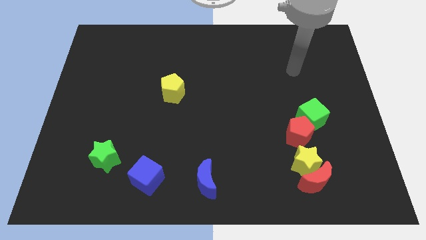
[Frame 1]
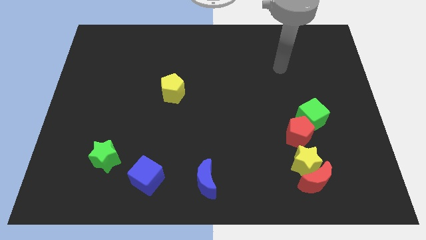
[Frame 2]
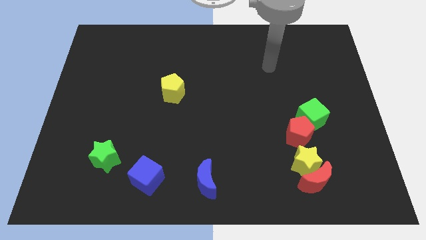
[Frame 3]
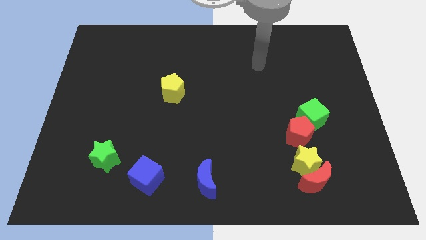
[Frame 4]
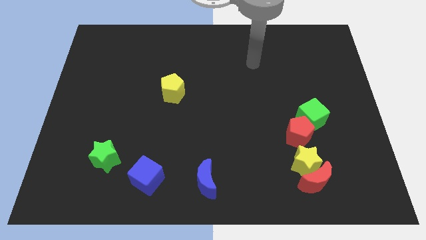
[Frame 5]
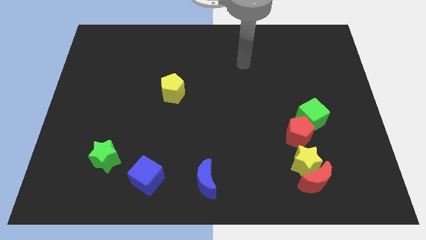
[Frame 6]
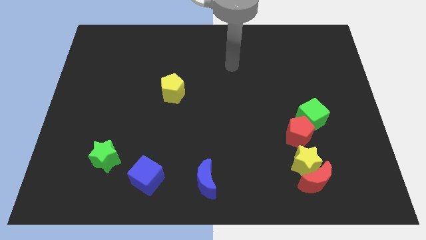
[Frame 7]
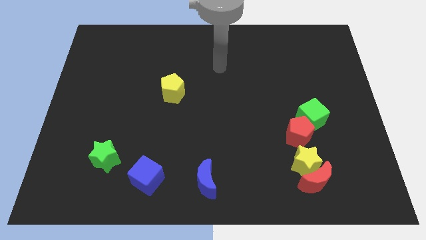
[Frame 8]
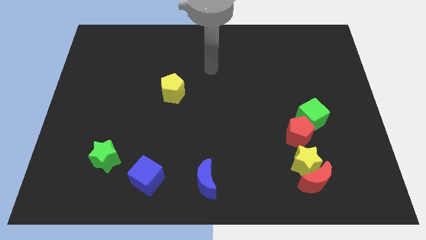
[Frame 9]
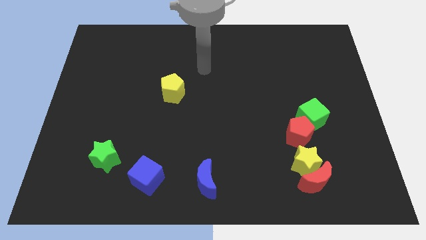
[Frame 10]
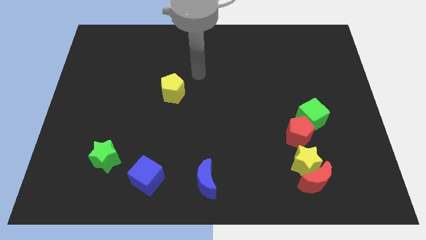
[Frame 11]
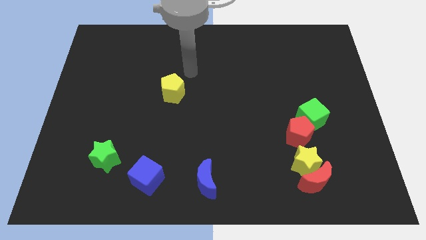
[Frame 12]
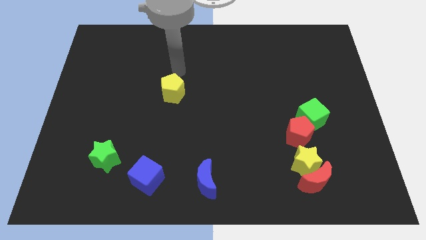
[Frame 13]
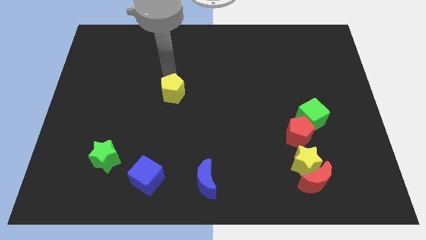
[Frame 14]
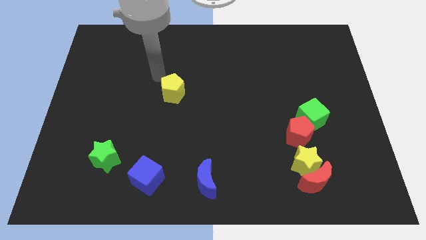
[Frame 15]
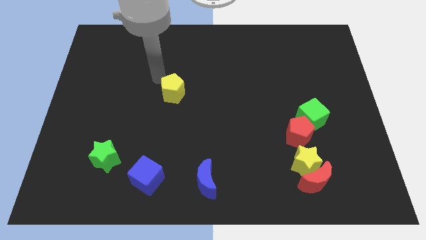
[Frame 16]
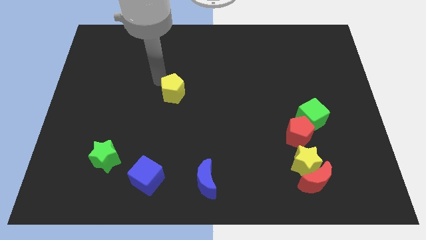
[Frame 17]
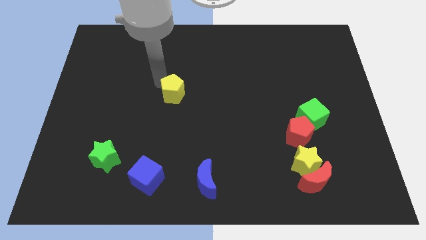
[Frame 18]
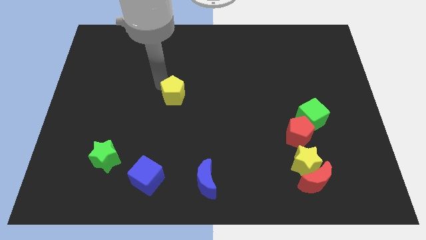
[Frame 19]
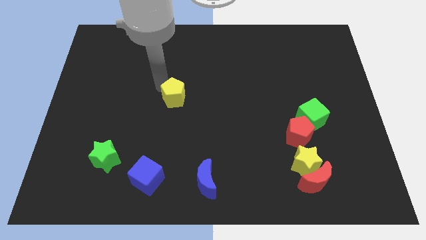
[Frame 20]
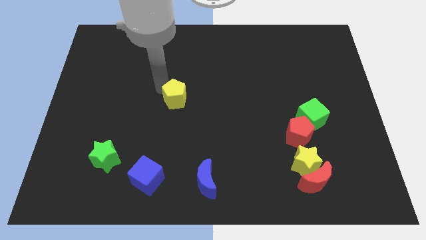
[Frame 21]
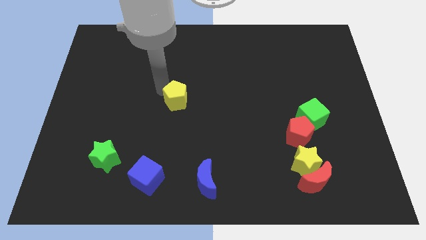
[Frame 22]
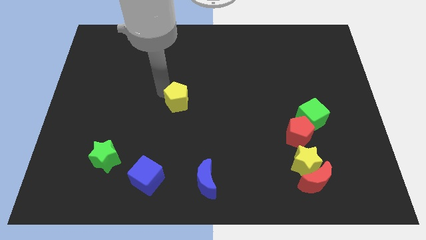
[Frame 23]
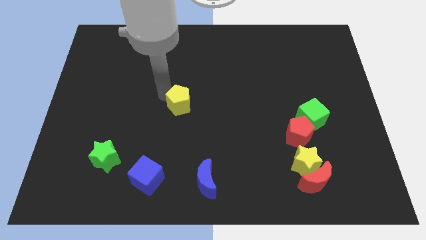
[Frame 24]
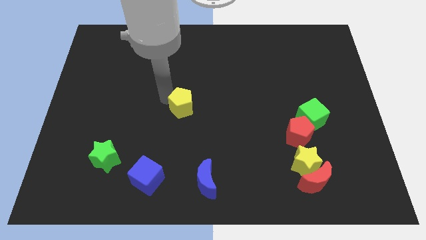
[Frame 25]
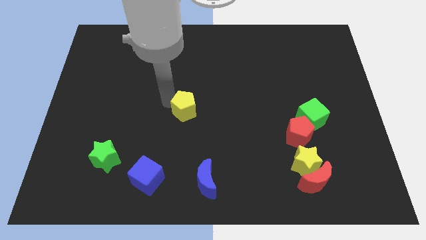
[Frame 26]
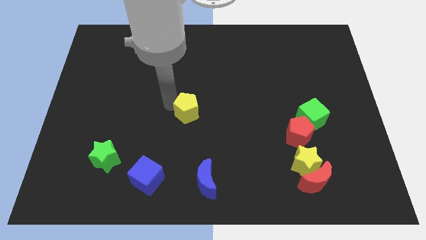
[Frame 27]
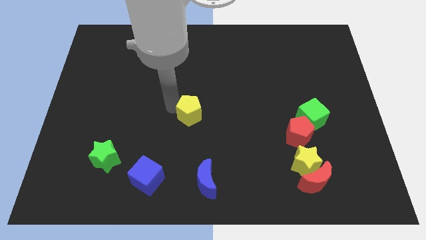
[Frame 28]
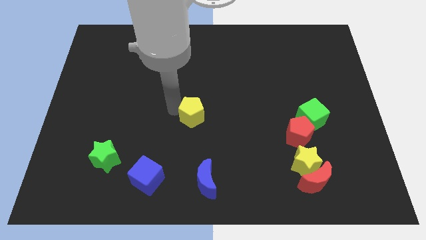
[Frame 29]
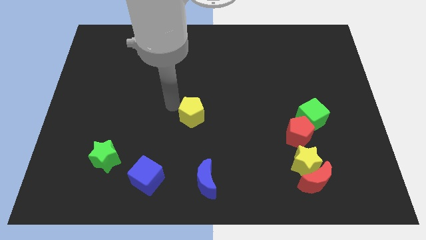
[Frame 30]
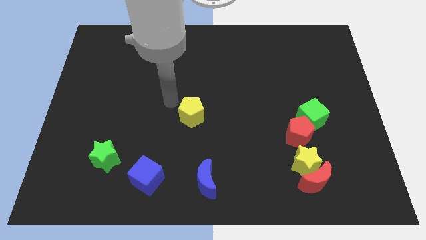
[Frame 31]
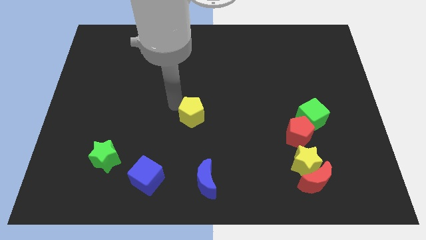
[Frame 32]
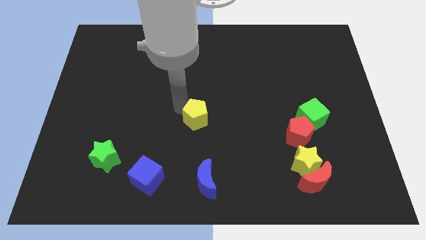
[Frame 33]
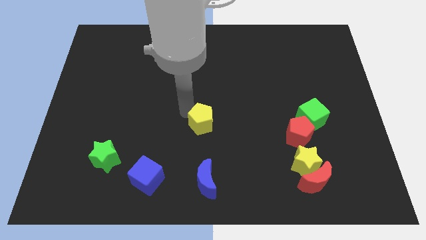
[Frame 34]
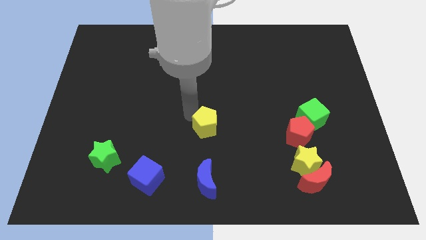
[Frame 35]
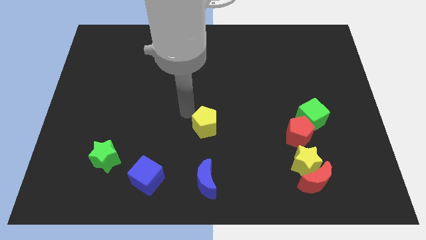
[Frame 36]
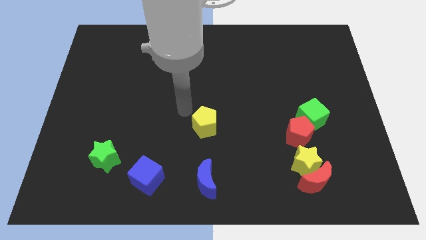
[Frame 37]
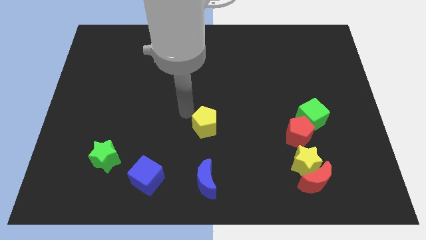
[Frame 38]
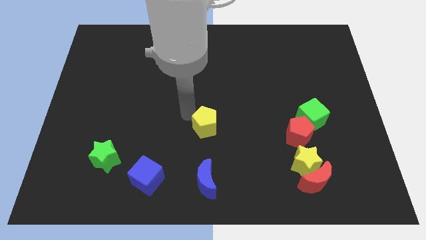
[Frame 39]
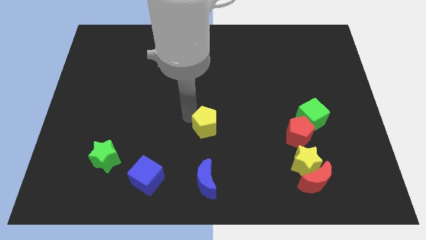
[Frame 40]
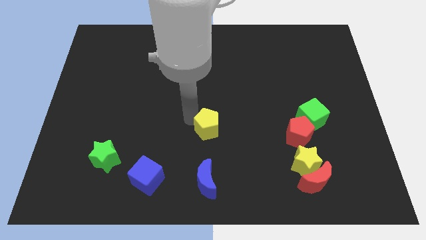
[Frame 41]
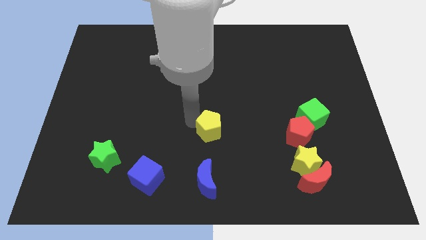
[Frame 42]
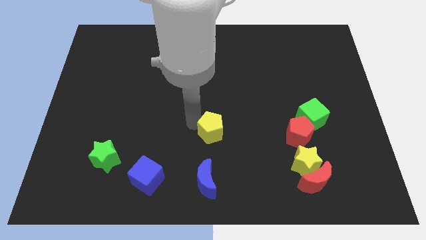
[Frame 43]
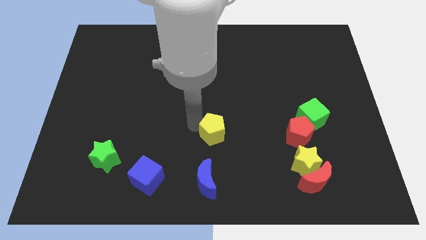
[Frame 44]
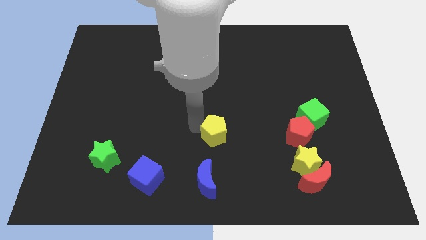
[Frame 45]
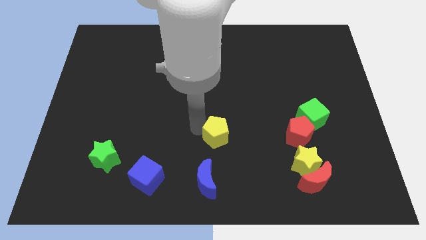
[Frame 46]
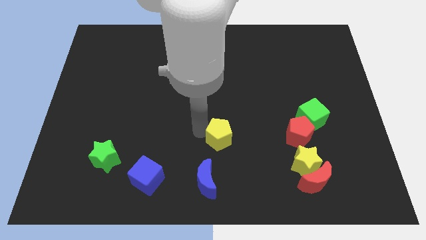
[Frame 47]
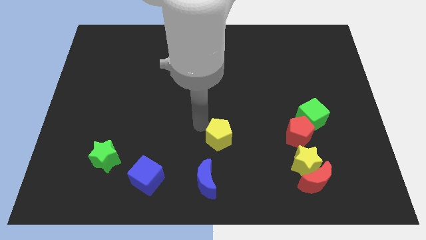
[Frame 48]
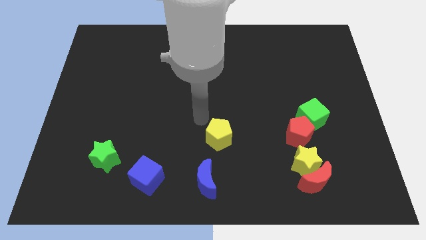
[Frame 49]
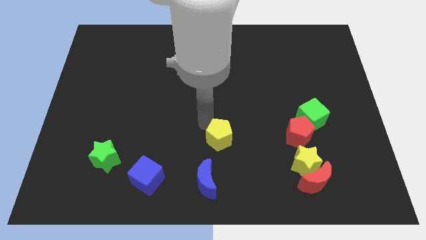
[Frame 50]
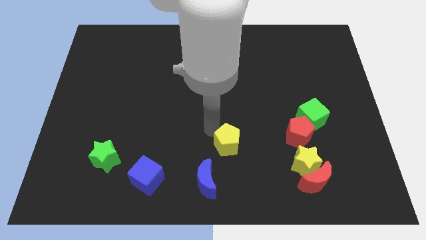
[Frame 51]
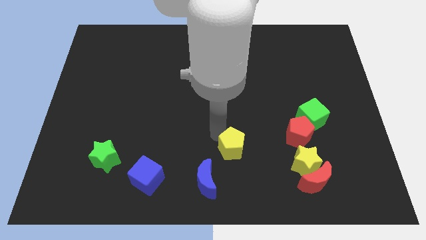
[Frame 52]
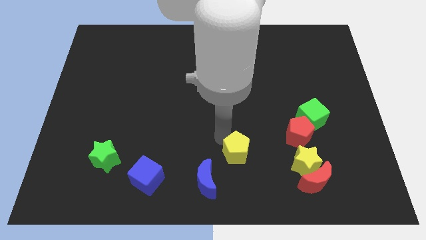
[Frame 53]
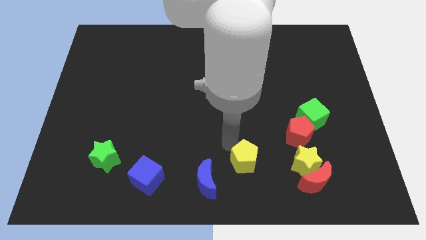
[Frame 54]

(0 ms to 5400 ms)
slide the yellow pentagon just right of the blue moon

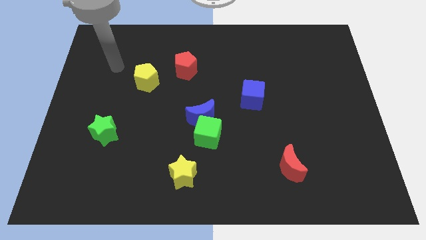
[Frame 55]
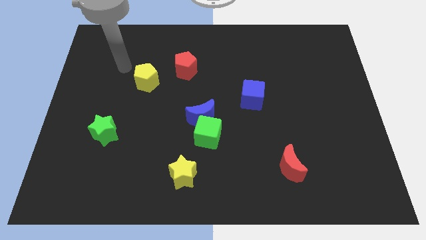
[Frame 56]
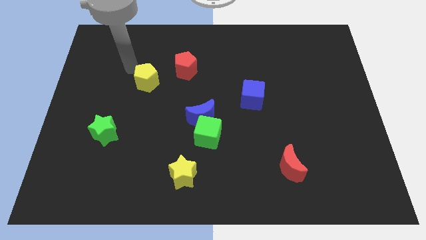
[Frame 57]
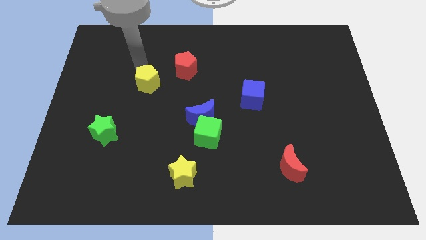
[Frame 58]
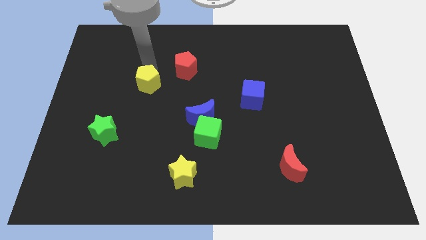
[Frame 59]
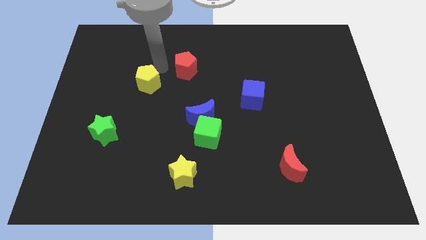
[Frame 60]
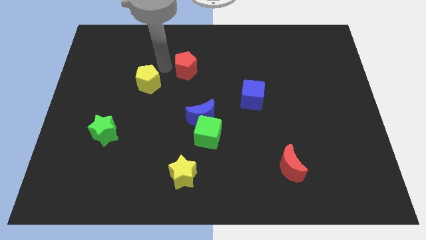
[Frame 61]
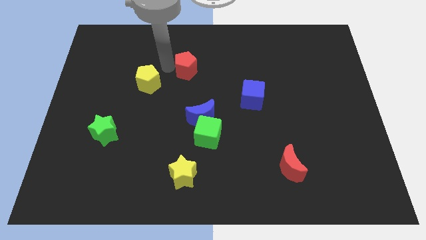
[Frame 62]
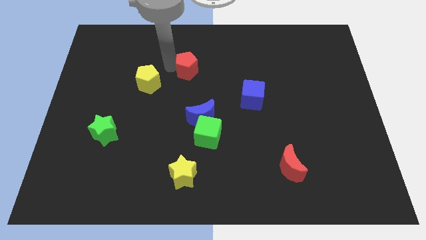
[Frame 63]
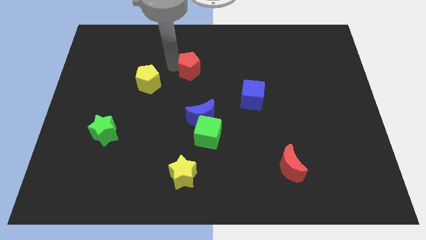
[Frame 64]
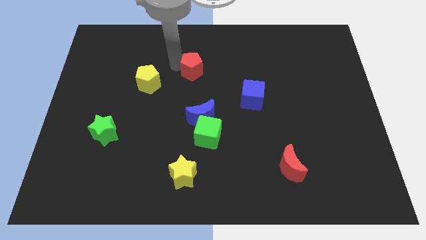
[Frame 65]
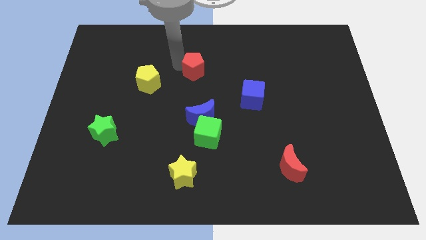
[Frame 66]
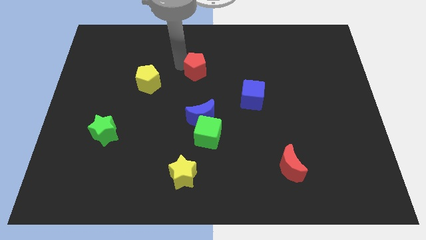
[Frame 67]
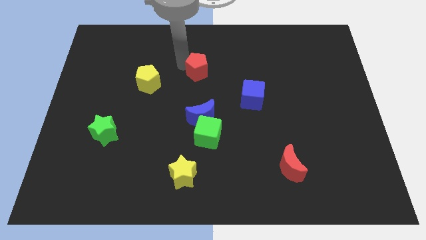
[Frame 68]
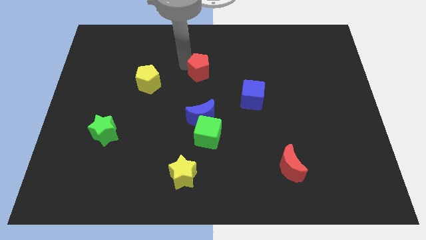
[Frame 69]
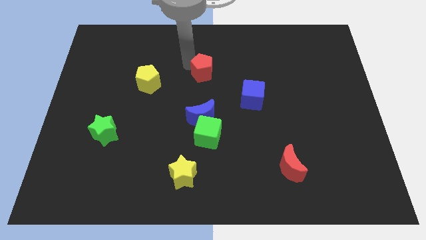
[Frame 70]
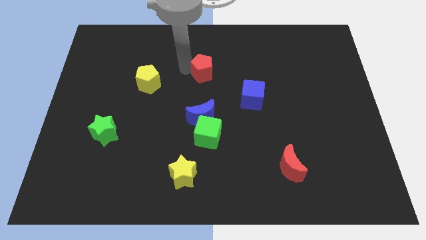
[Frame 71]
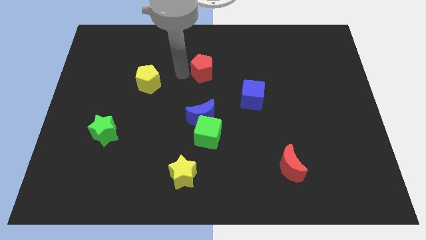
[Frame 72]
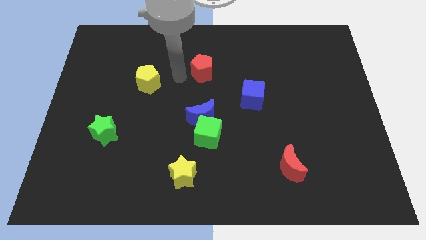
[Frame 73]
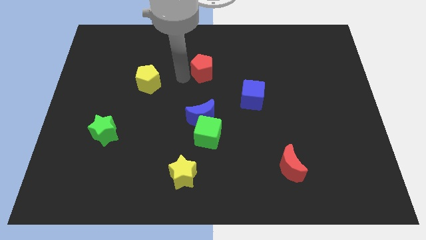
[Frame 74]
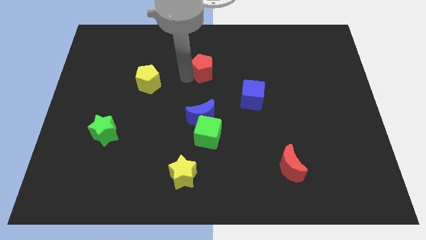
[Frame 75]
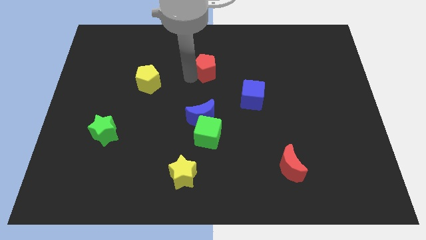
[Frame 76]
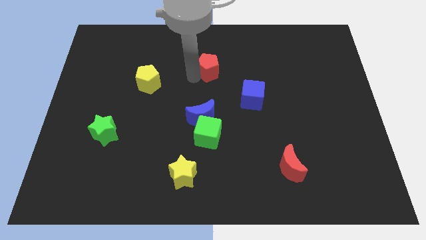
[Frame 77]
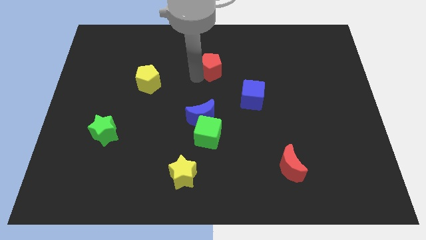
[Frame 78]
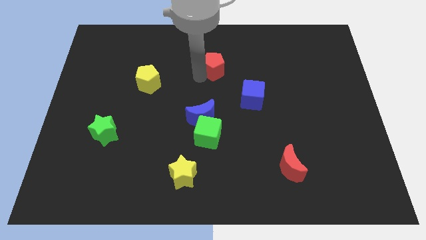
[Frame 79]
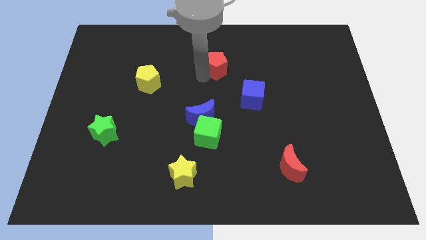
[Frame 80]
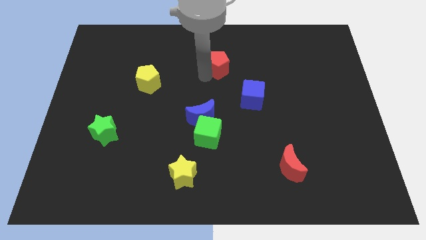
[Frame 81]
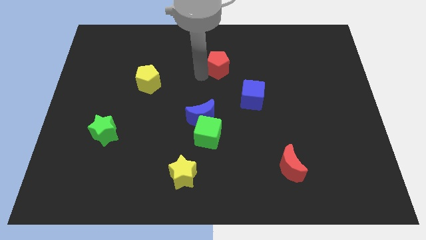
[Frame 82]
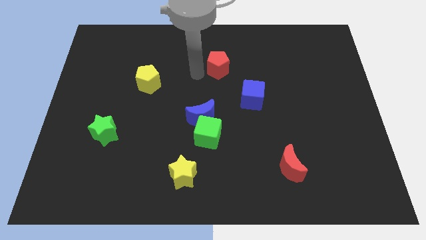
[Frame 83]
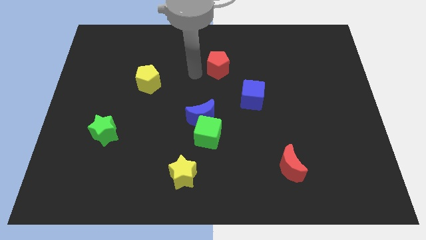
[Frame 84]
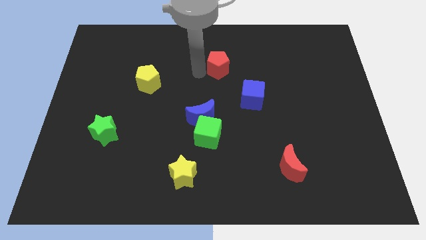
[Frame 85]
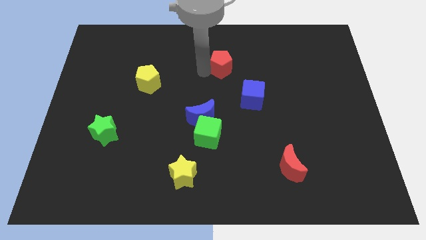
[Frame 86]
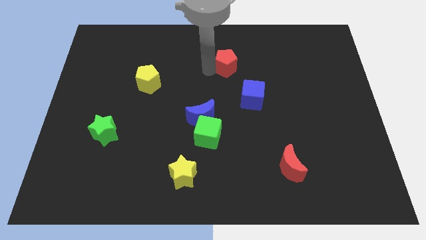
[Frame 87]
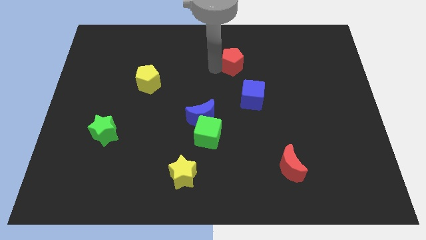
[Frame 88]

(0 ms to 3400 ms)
put the red pentagon to the top side of the blue cube
